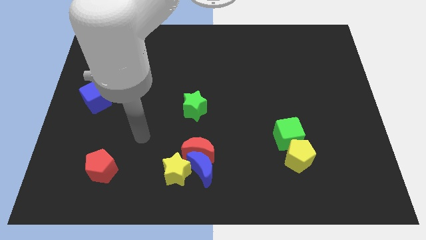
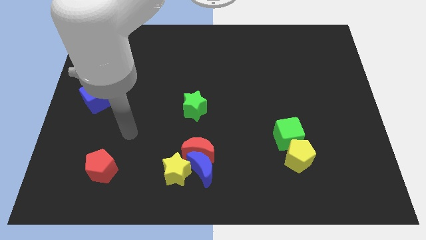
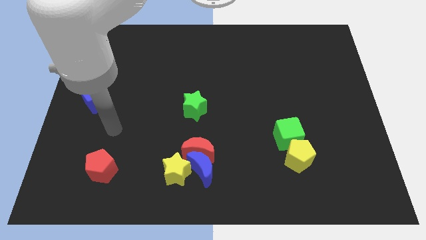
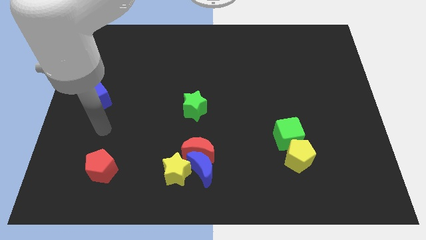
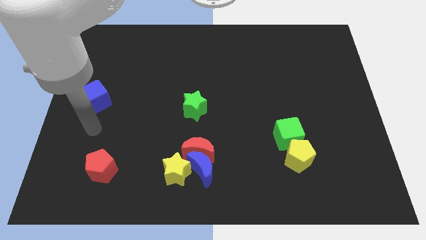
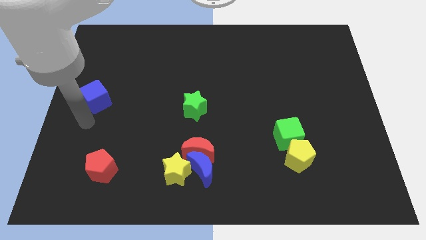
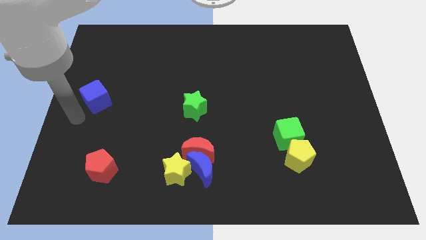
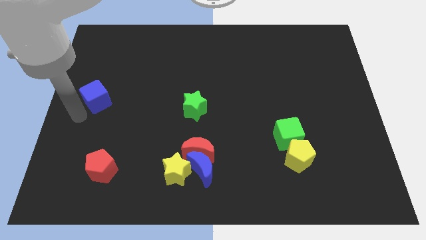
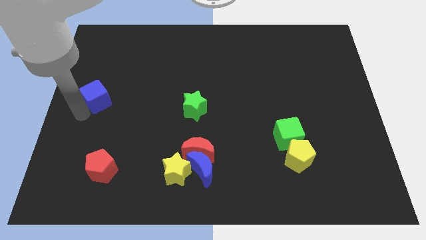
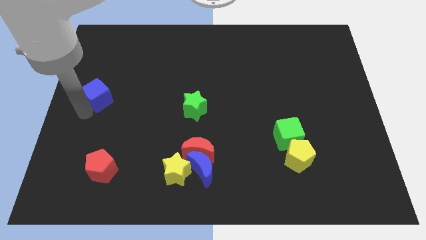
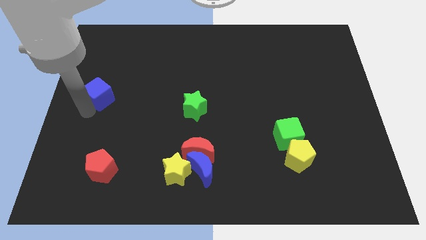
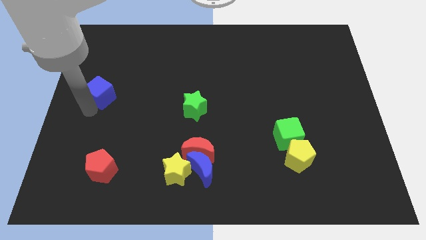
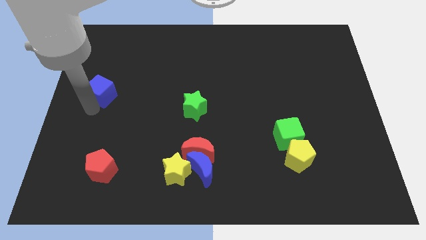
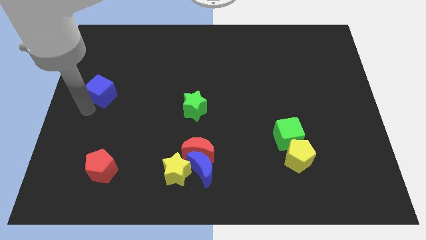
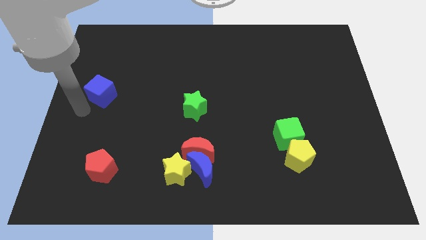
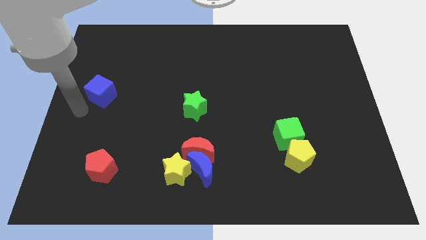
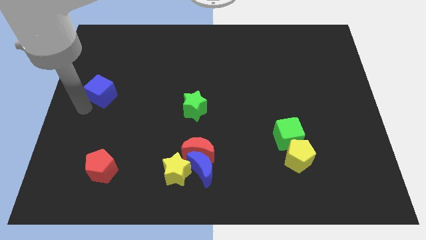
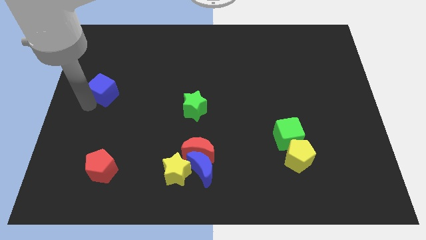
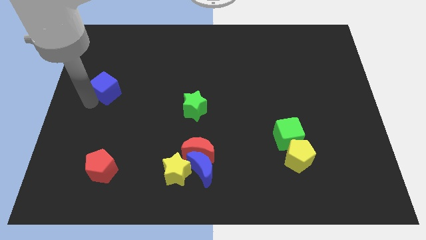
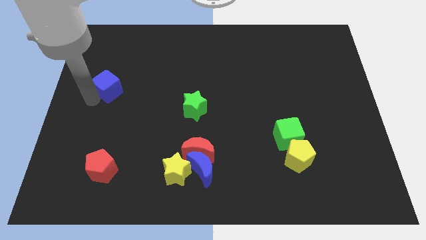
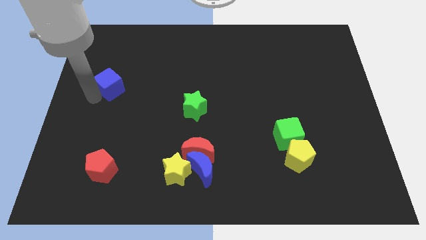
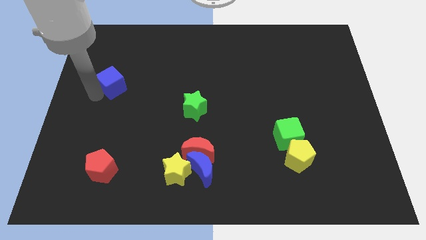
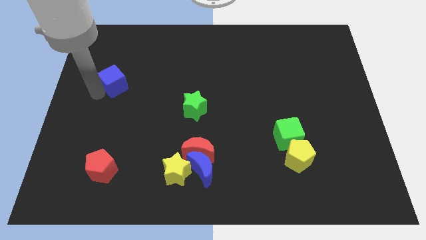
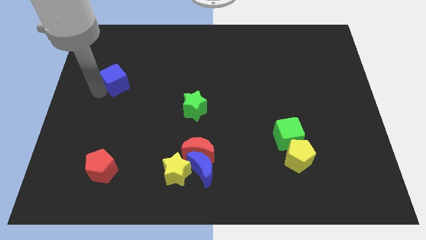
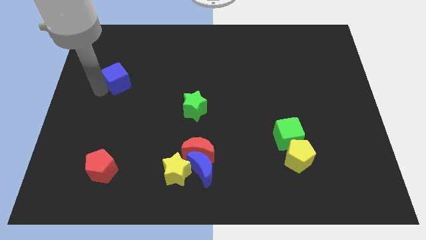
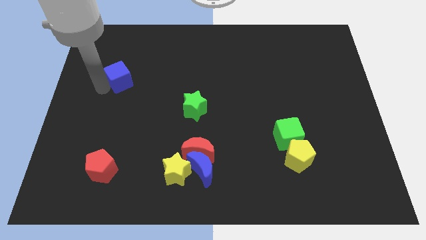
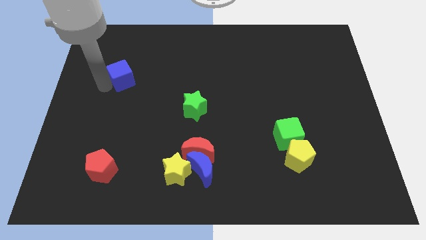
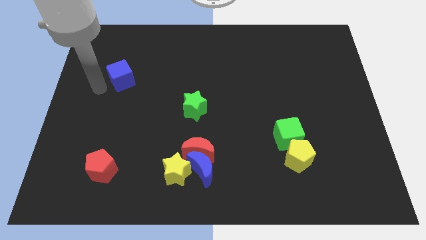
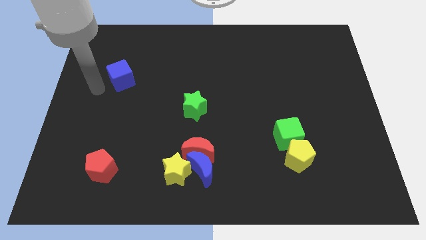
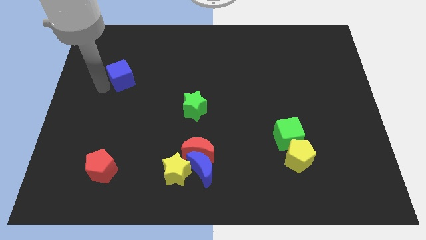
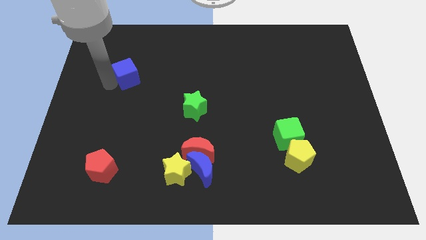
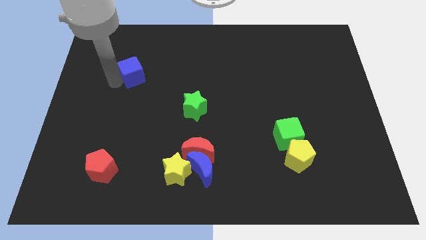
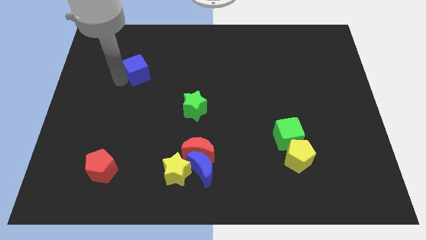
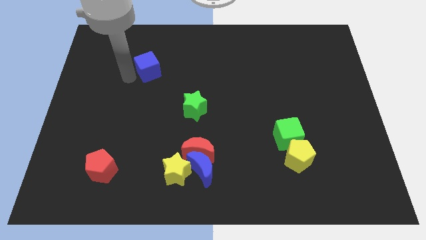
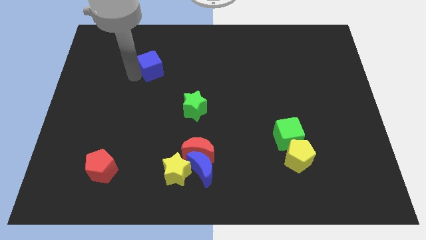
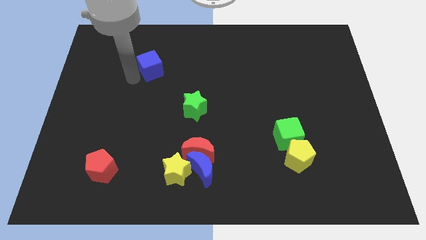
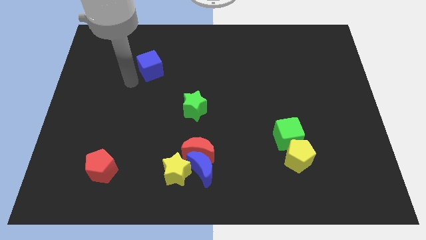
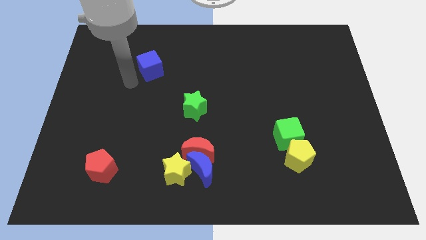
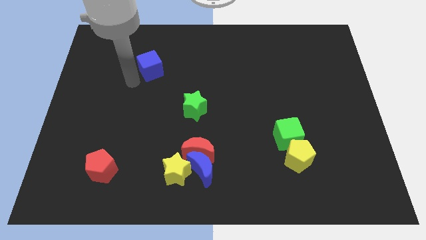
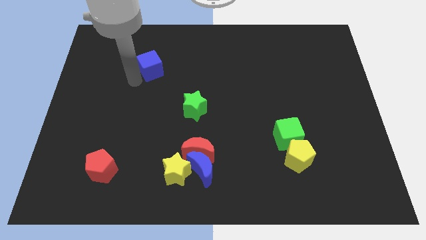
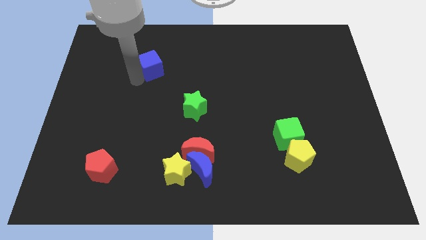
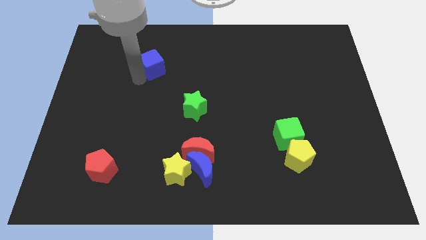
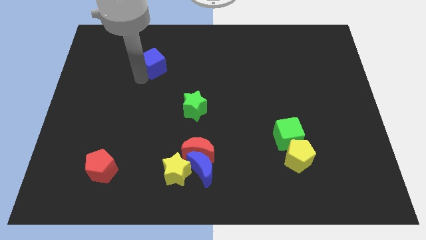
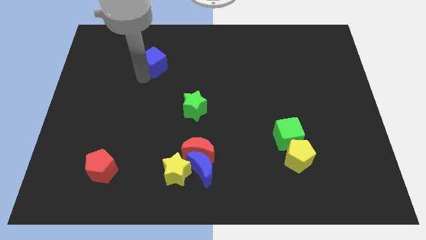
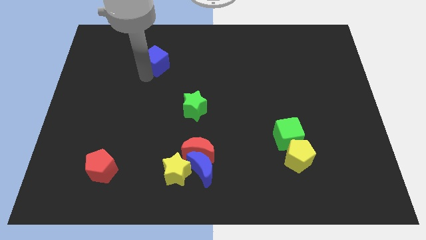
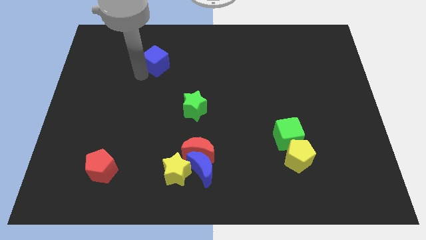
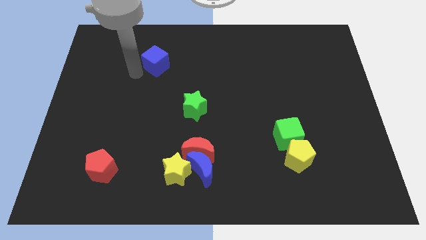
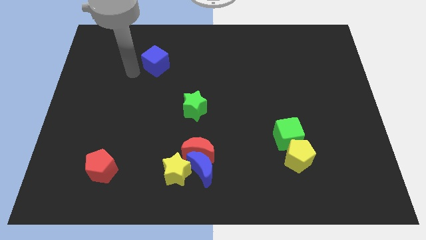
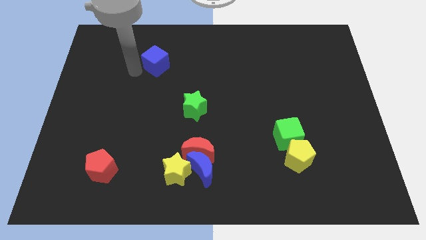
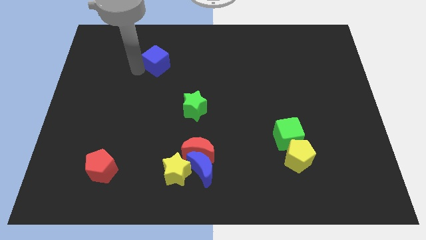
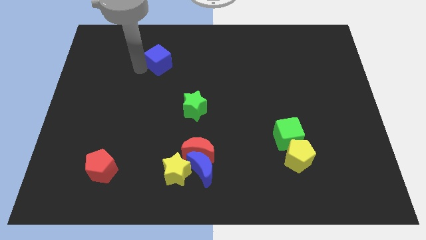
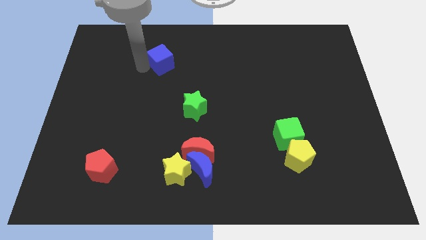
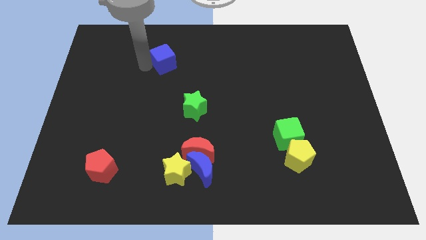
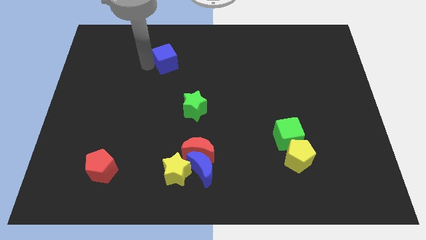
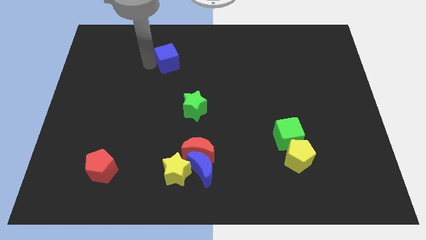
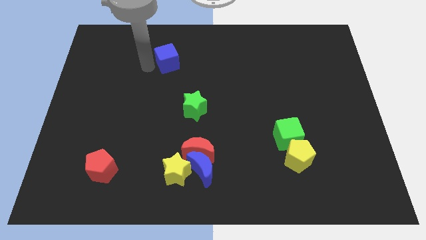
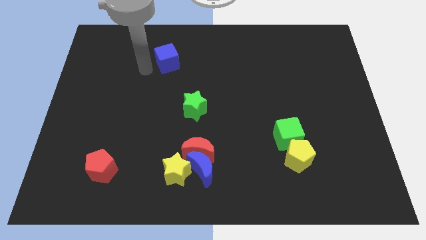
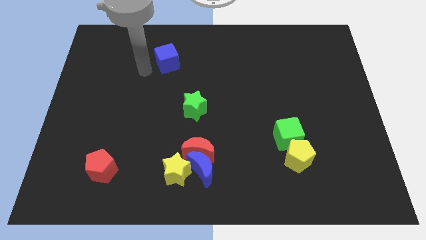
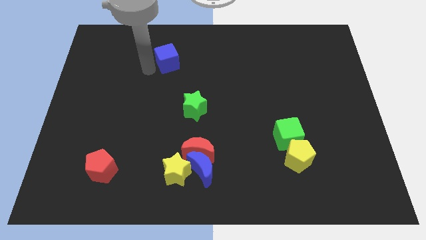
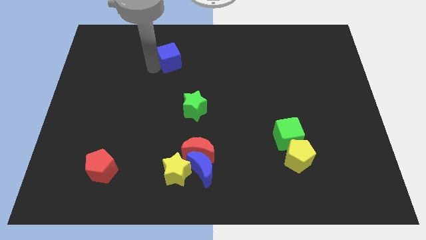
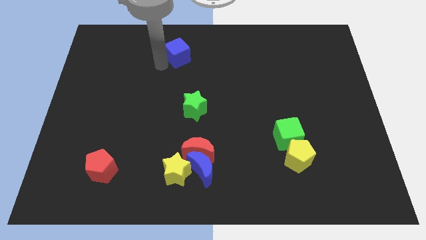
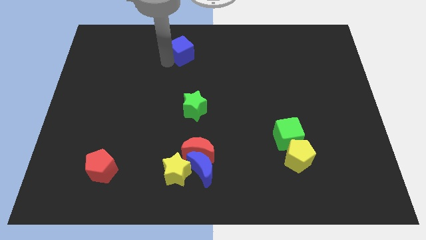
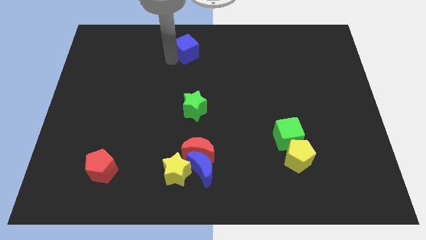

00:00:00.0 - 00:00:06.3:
put the blue cube to the towards your base
